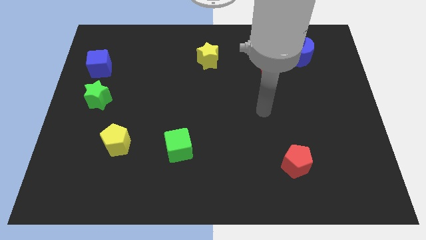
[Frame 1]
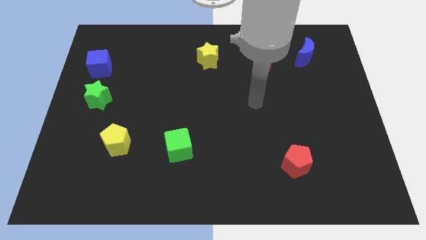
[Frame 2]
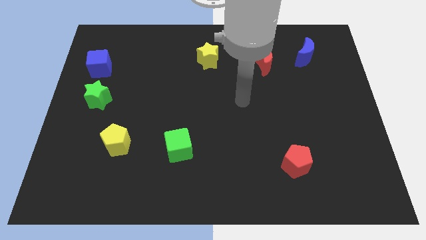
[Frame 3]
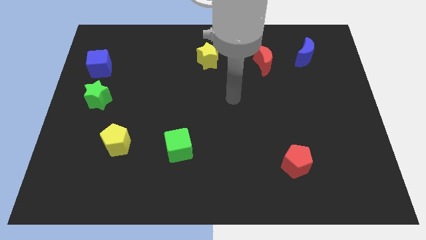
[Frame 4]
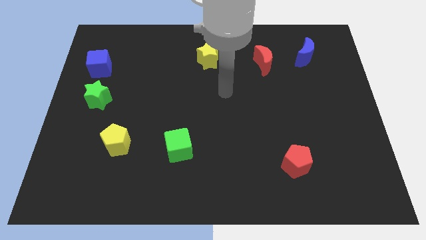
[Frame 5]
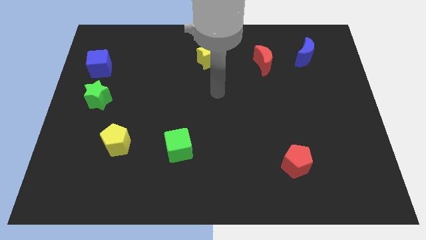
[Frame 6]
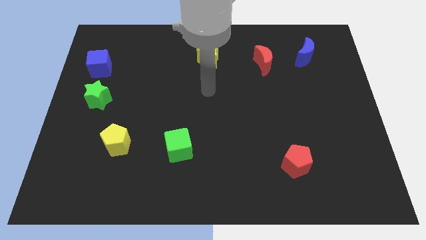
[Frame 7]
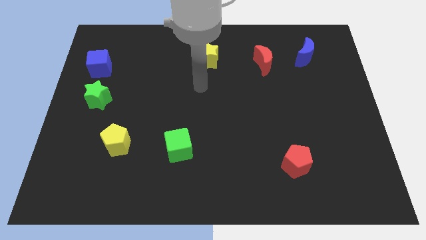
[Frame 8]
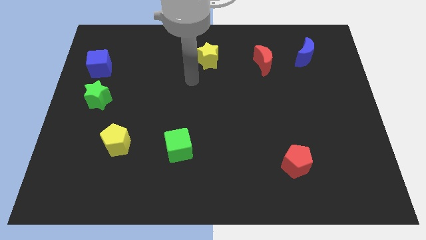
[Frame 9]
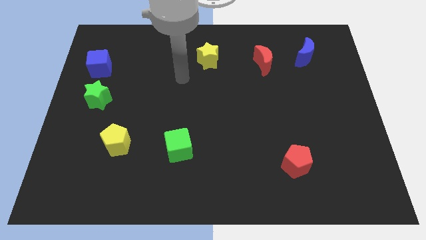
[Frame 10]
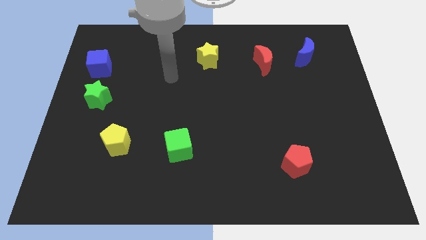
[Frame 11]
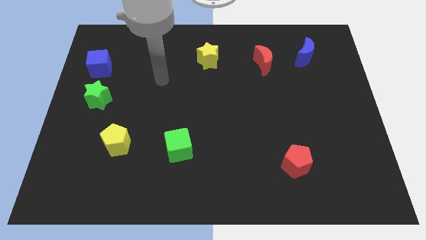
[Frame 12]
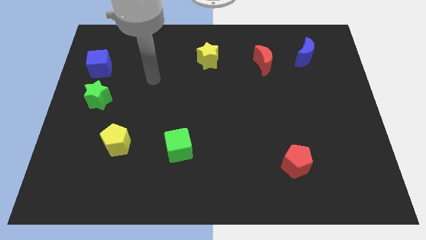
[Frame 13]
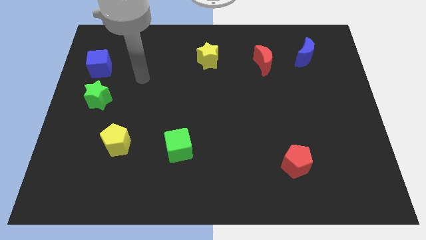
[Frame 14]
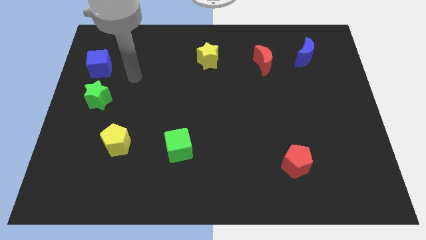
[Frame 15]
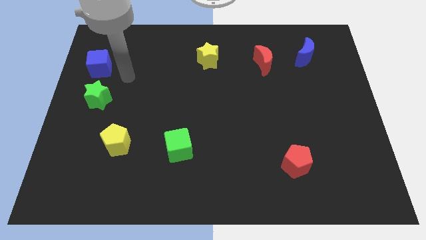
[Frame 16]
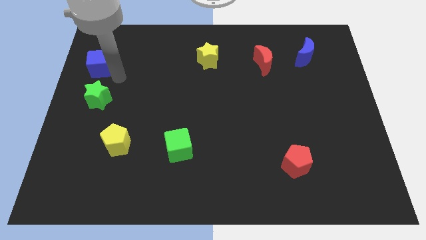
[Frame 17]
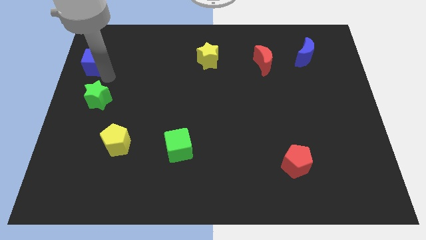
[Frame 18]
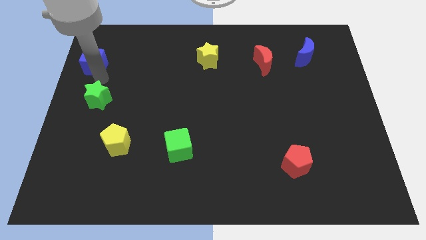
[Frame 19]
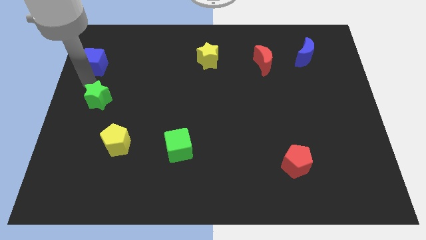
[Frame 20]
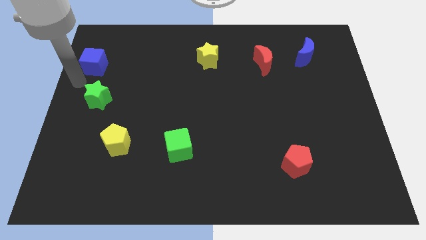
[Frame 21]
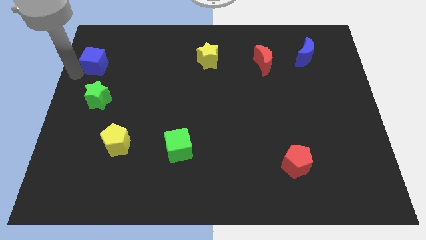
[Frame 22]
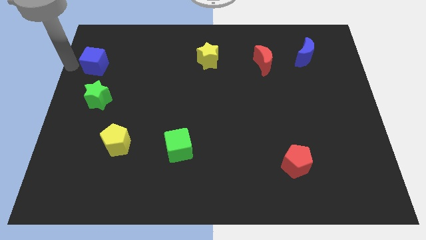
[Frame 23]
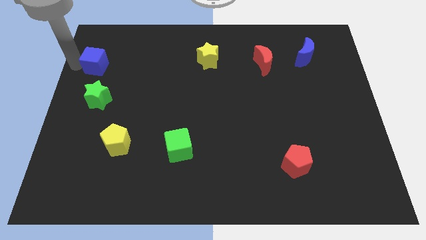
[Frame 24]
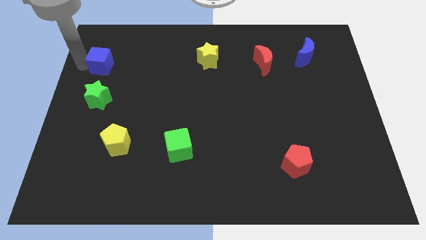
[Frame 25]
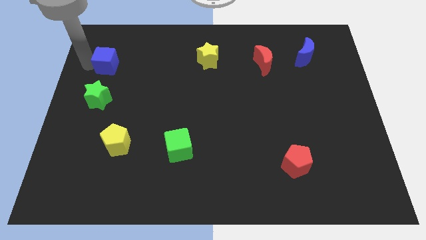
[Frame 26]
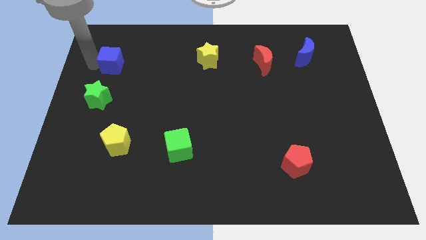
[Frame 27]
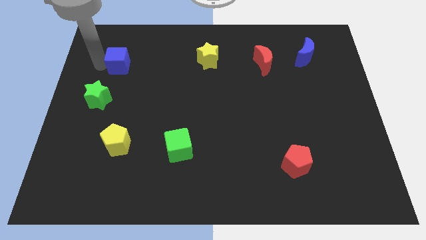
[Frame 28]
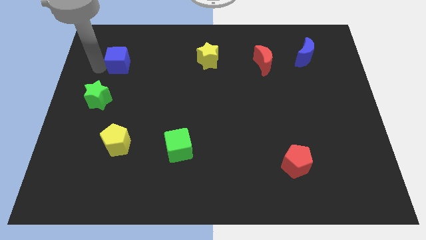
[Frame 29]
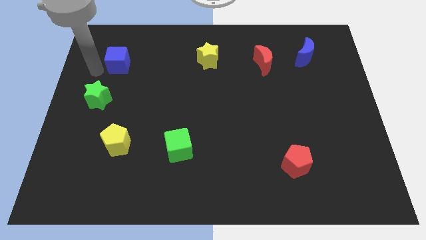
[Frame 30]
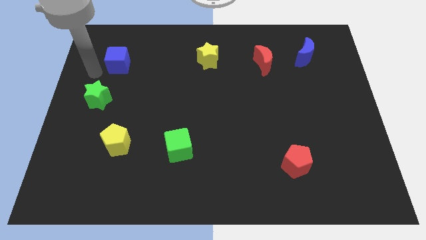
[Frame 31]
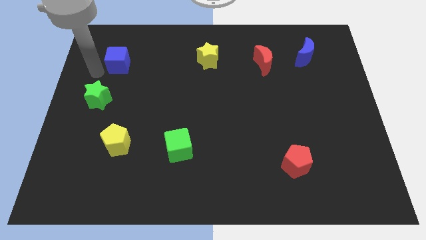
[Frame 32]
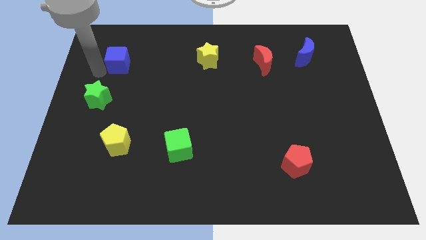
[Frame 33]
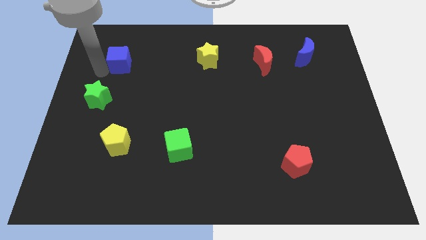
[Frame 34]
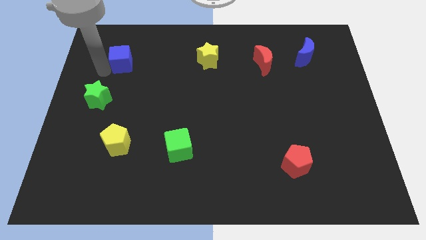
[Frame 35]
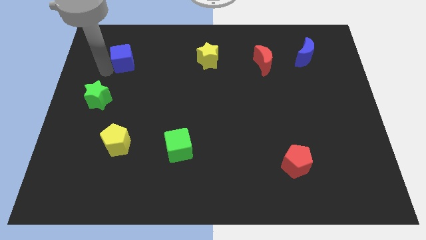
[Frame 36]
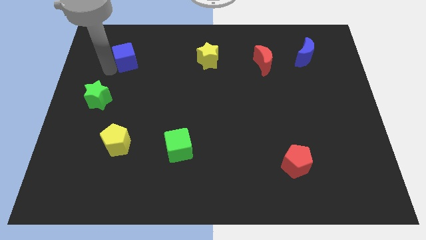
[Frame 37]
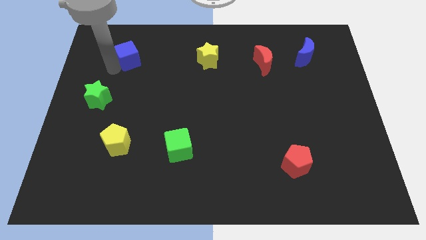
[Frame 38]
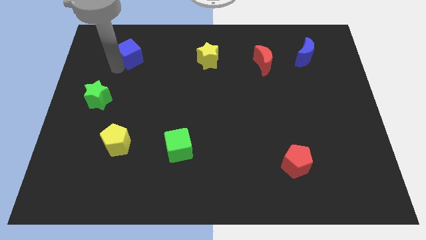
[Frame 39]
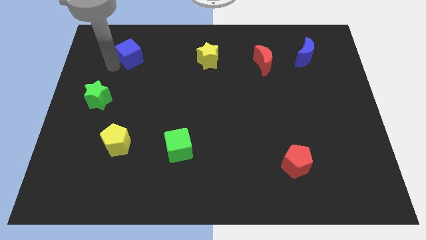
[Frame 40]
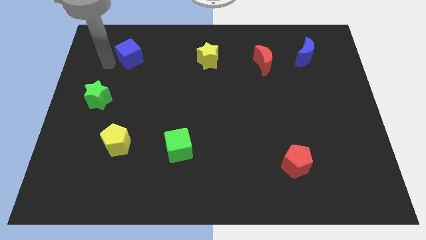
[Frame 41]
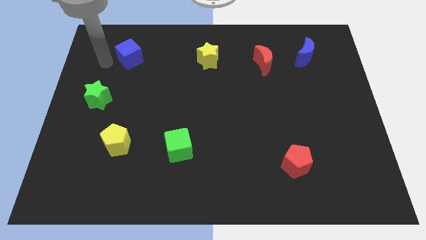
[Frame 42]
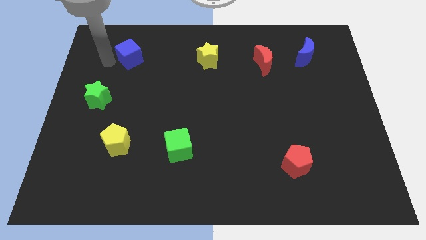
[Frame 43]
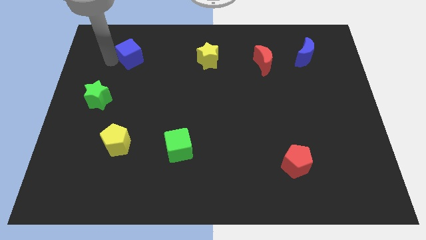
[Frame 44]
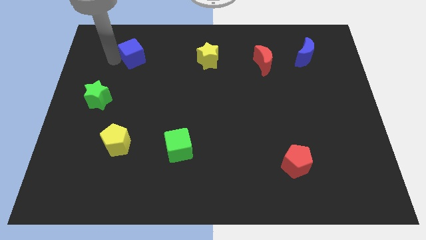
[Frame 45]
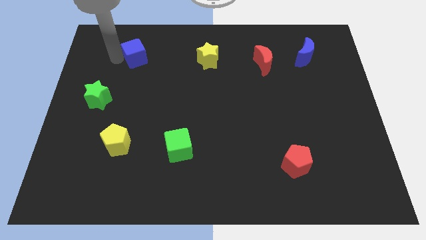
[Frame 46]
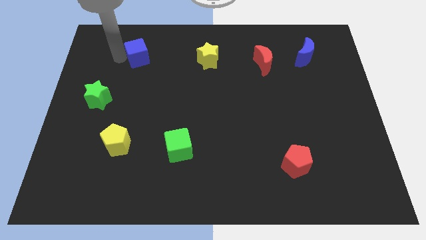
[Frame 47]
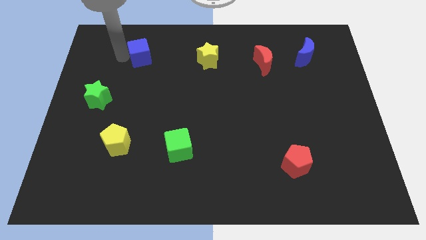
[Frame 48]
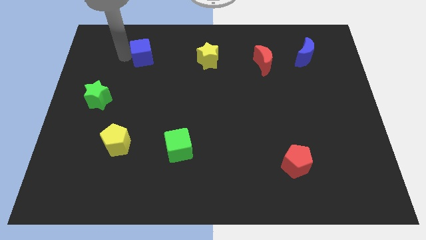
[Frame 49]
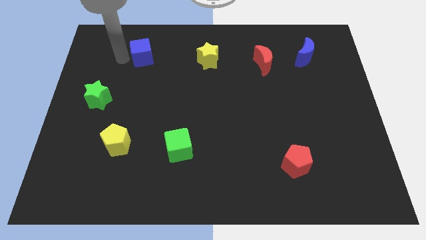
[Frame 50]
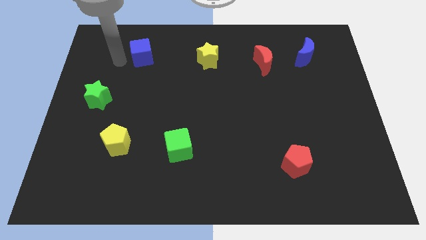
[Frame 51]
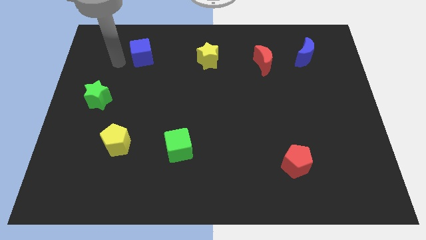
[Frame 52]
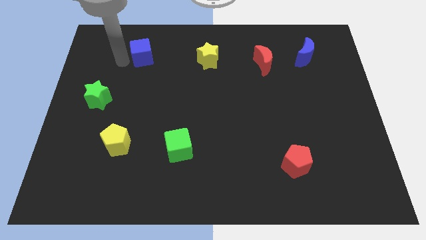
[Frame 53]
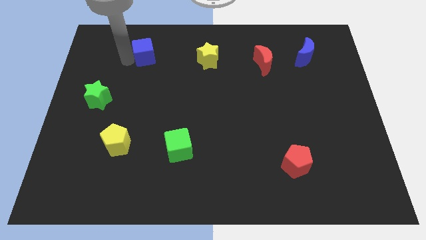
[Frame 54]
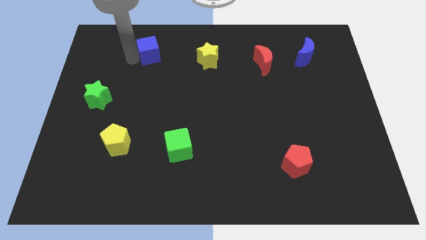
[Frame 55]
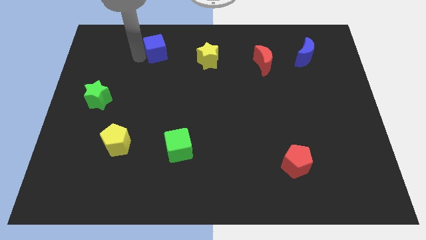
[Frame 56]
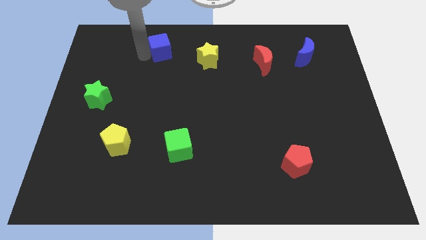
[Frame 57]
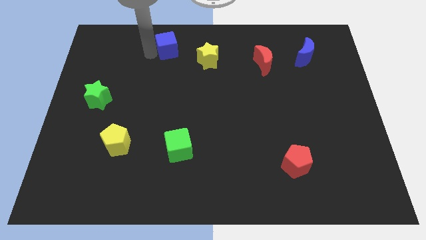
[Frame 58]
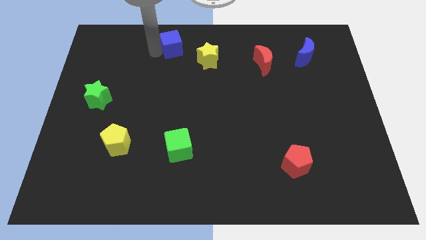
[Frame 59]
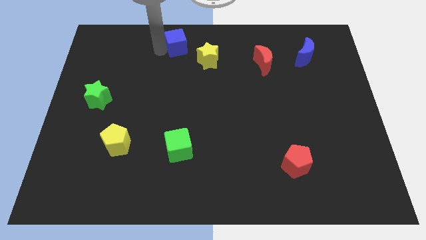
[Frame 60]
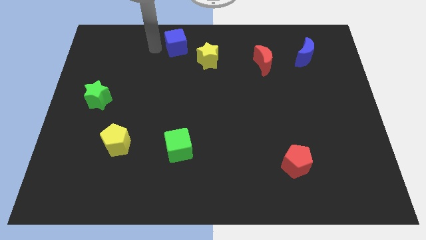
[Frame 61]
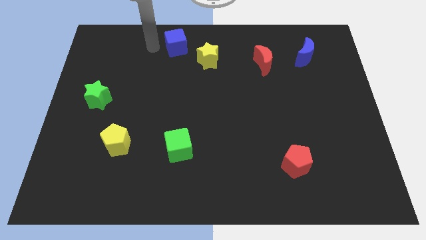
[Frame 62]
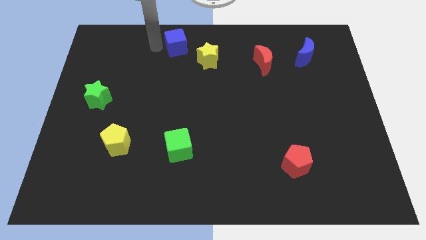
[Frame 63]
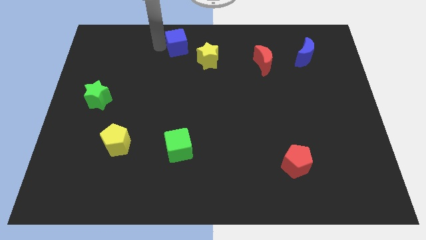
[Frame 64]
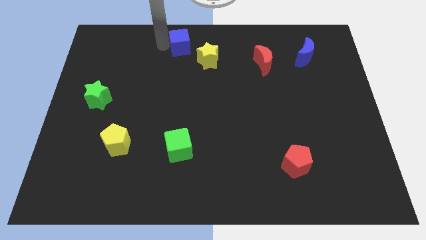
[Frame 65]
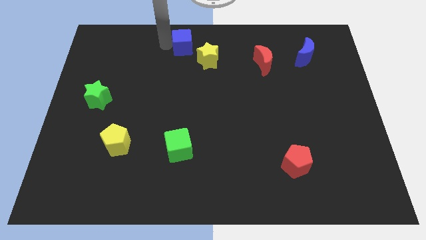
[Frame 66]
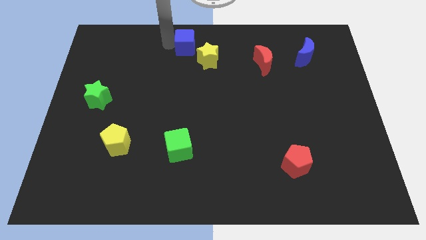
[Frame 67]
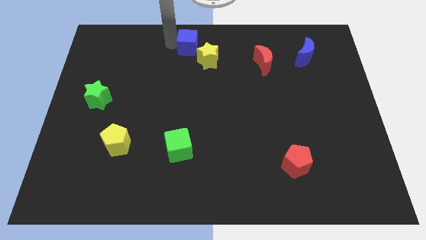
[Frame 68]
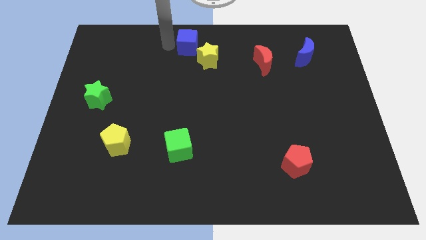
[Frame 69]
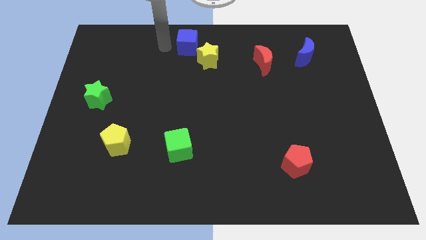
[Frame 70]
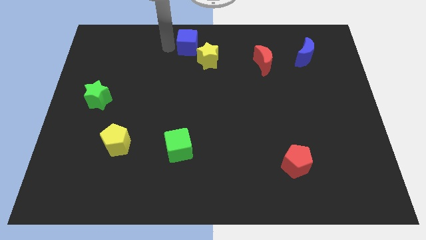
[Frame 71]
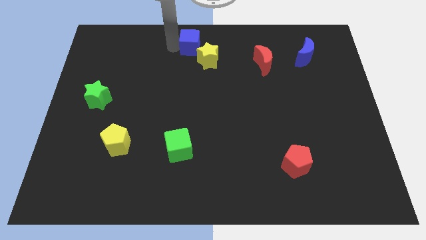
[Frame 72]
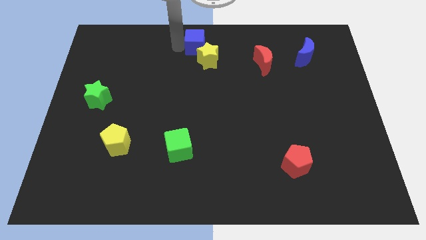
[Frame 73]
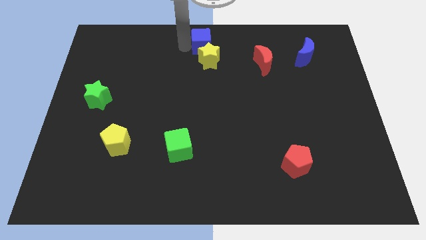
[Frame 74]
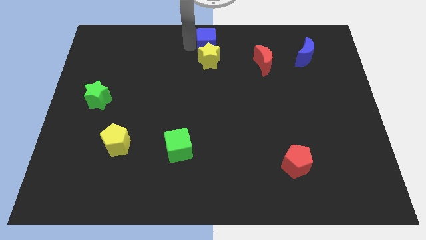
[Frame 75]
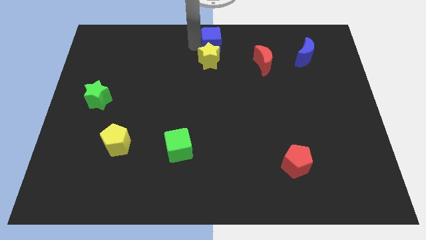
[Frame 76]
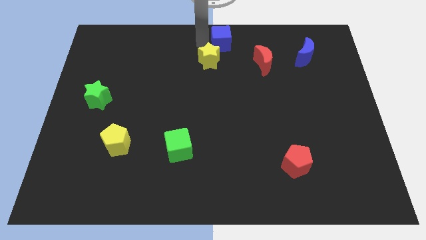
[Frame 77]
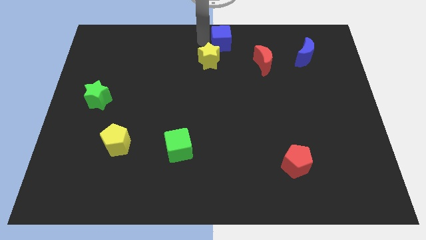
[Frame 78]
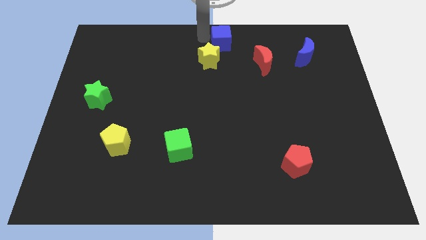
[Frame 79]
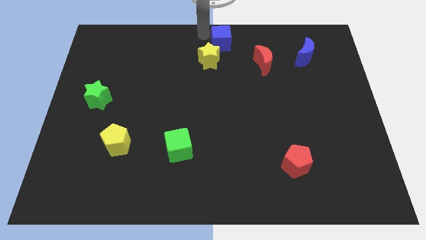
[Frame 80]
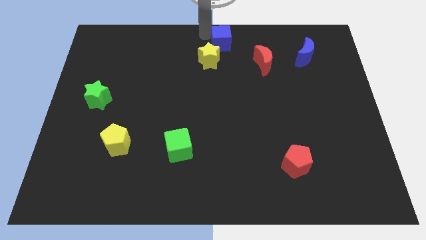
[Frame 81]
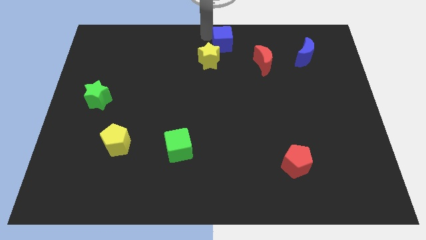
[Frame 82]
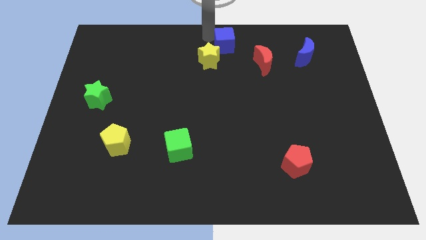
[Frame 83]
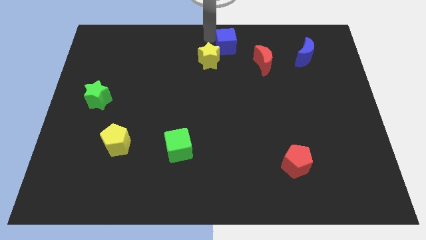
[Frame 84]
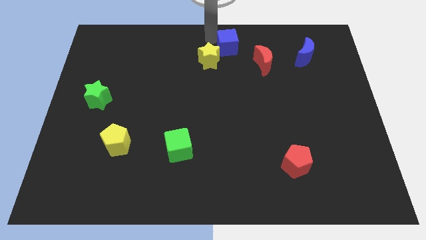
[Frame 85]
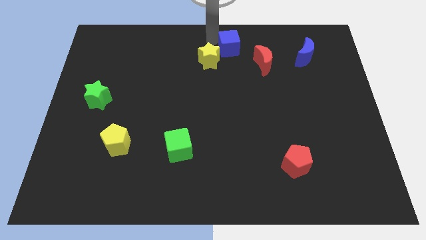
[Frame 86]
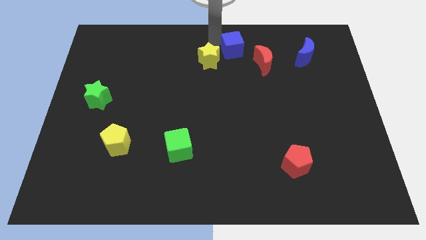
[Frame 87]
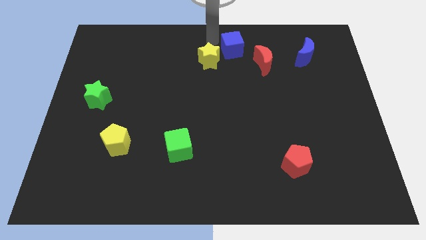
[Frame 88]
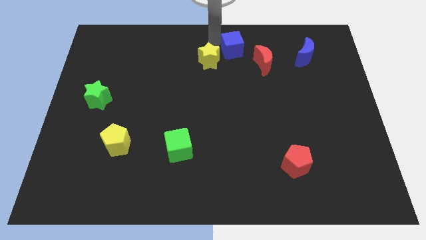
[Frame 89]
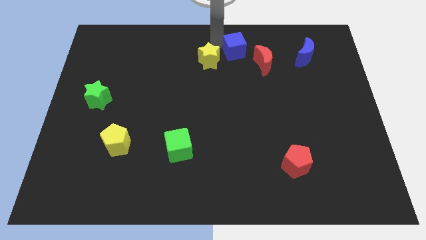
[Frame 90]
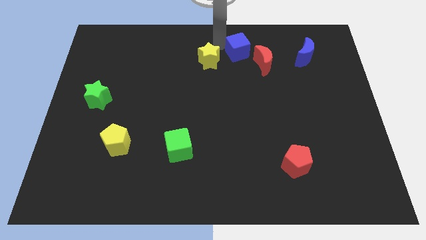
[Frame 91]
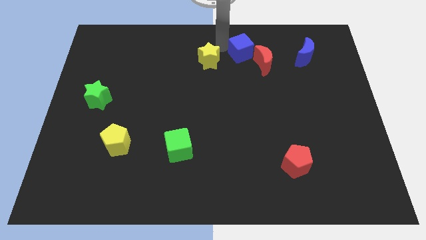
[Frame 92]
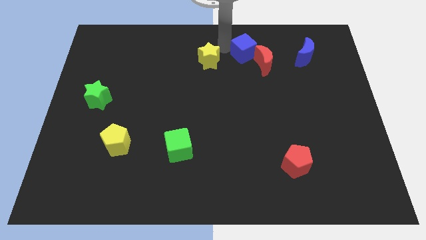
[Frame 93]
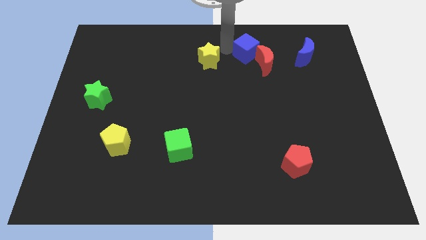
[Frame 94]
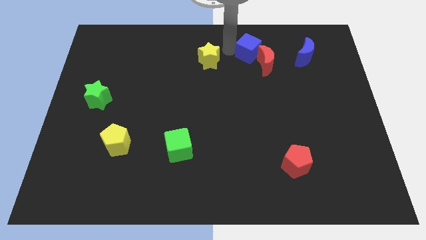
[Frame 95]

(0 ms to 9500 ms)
slide the blue cube towards the red moon
